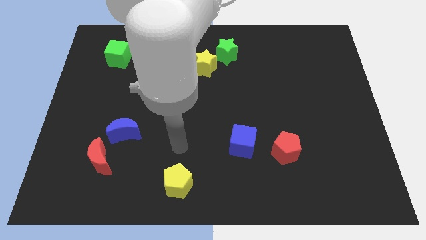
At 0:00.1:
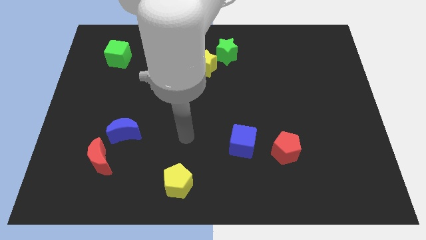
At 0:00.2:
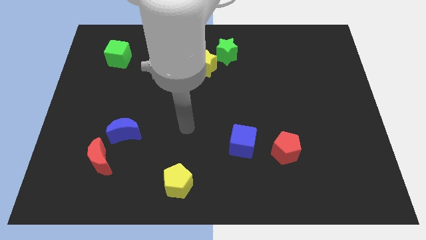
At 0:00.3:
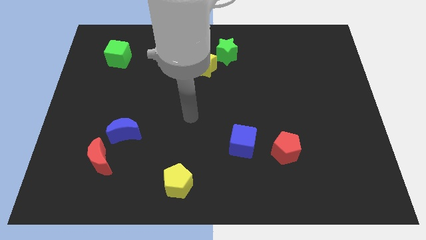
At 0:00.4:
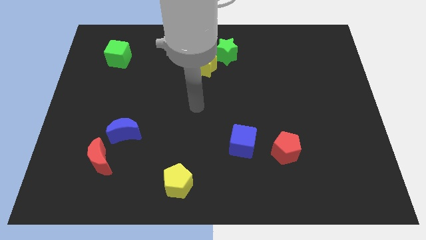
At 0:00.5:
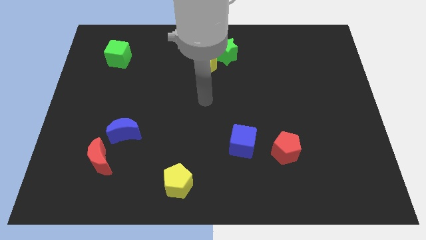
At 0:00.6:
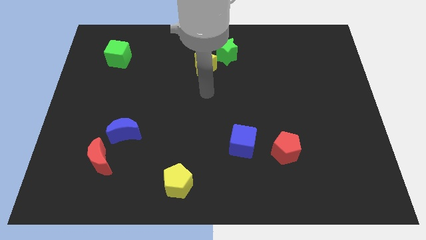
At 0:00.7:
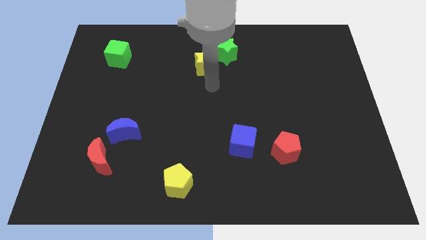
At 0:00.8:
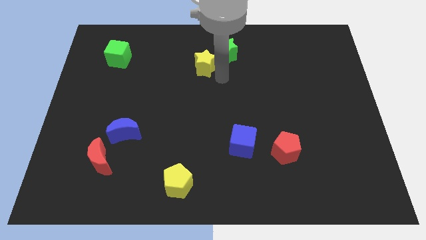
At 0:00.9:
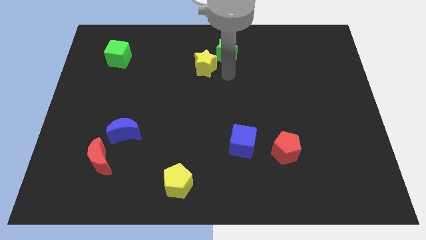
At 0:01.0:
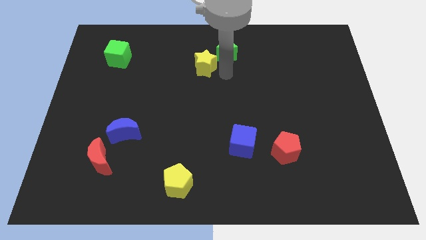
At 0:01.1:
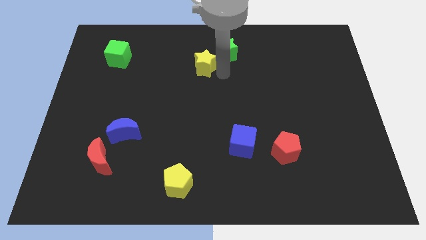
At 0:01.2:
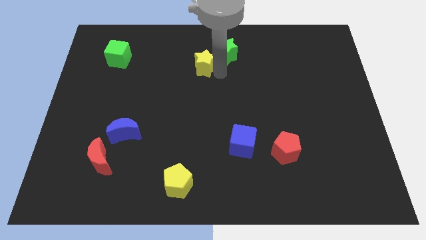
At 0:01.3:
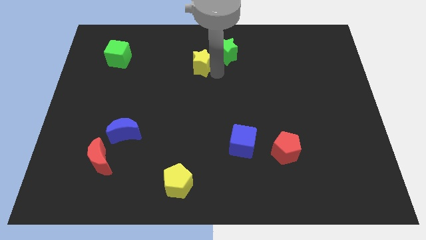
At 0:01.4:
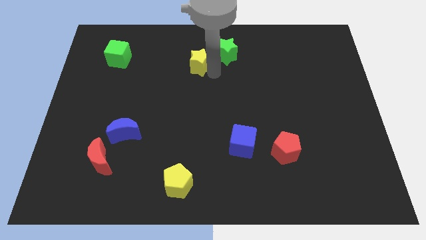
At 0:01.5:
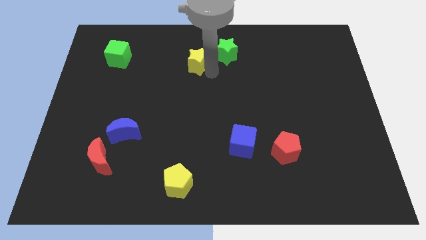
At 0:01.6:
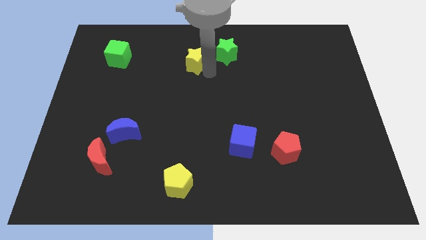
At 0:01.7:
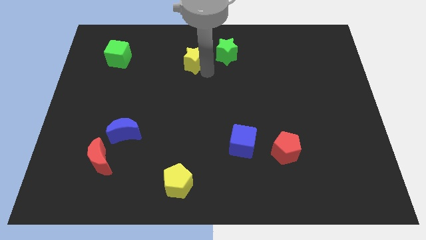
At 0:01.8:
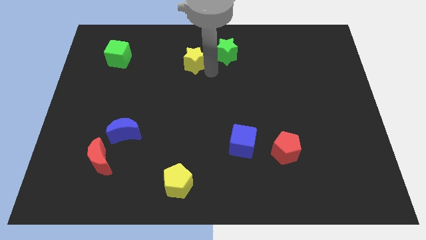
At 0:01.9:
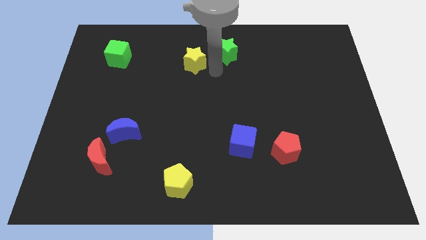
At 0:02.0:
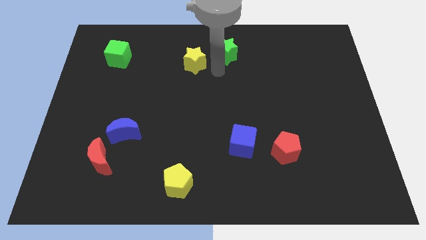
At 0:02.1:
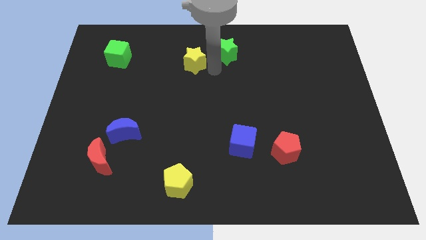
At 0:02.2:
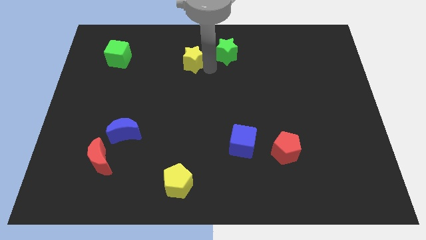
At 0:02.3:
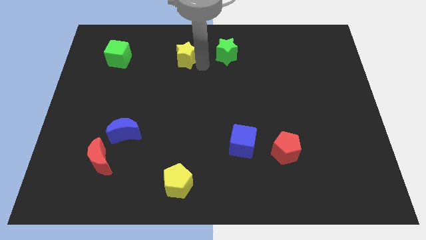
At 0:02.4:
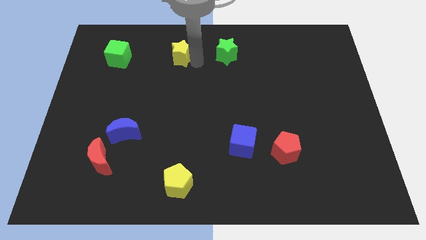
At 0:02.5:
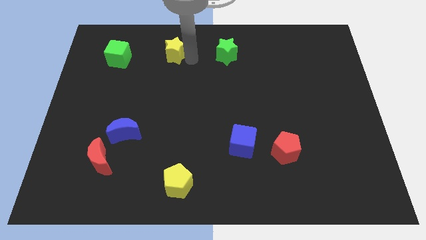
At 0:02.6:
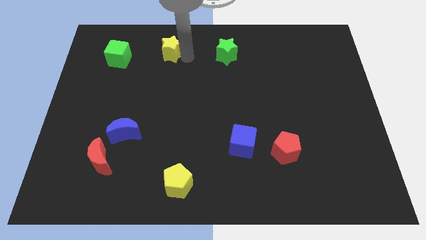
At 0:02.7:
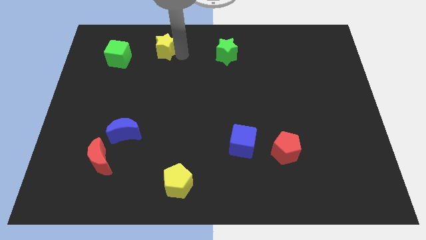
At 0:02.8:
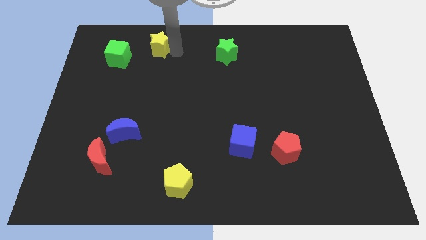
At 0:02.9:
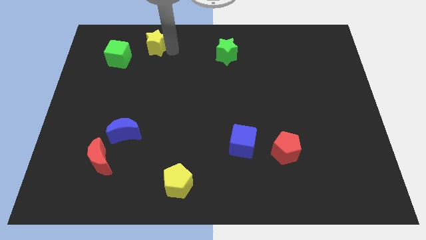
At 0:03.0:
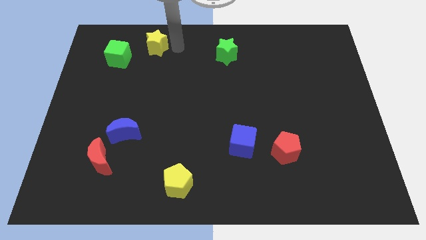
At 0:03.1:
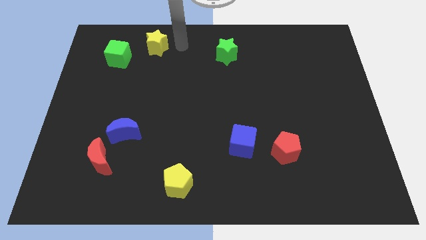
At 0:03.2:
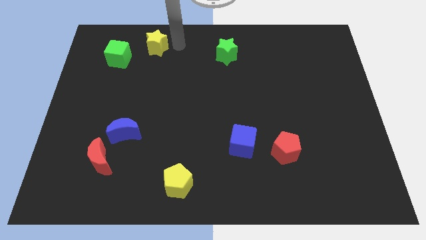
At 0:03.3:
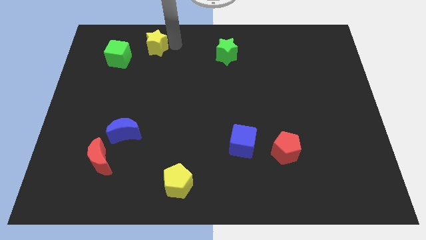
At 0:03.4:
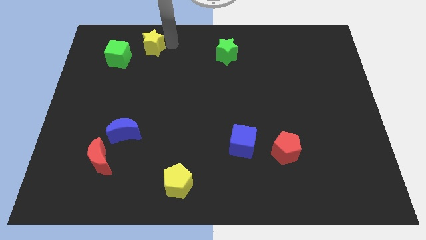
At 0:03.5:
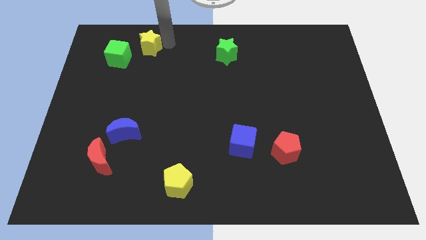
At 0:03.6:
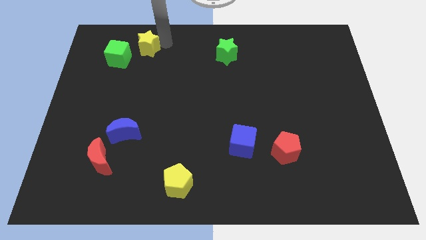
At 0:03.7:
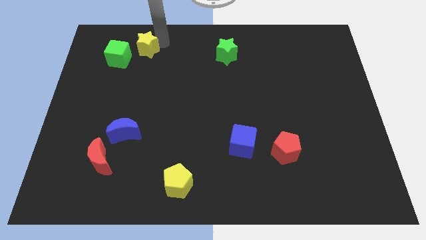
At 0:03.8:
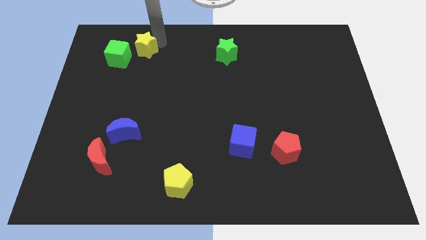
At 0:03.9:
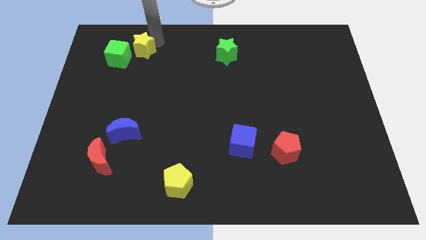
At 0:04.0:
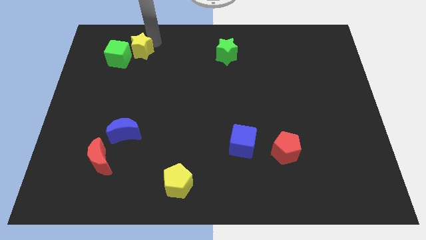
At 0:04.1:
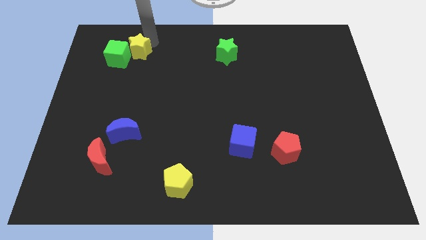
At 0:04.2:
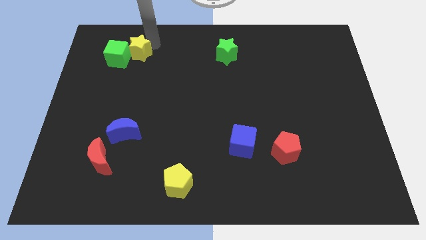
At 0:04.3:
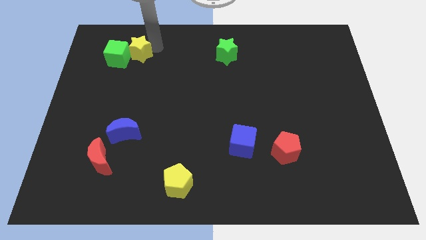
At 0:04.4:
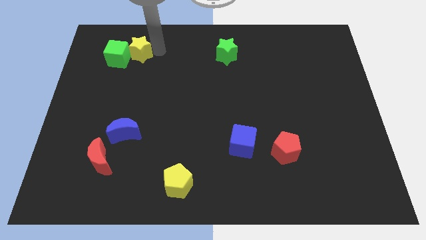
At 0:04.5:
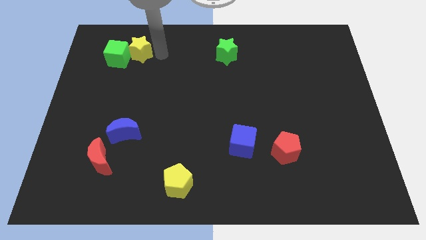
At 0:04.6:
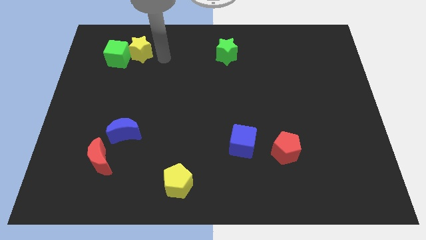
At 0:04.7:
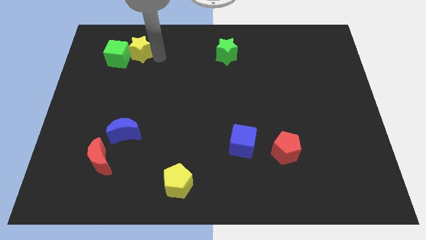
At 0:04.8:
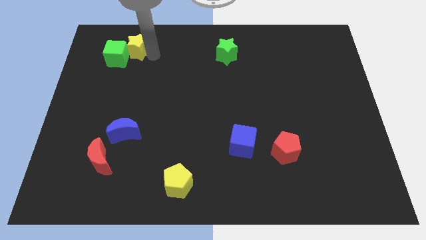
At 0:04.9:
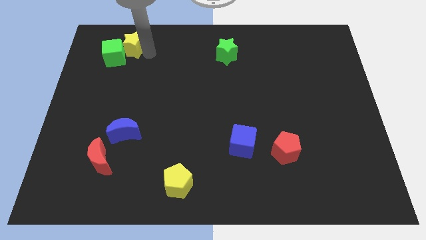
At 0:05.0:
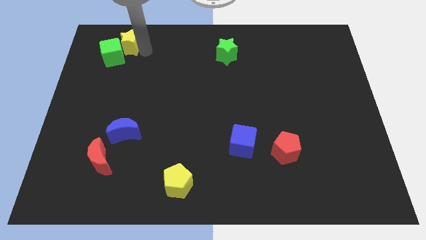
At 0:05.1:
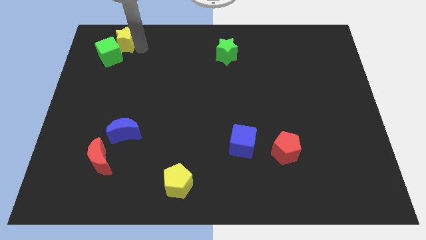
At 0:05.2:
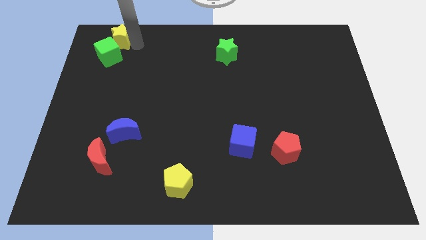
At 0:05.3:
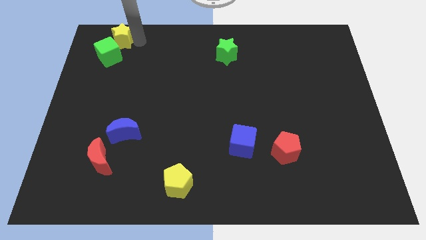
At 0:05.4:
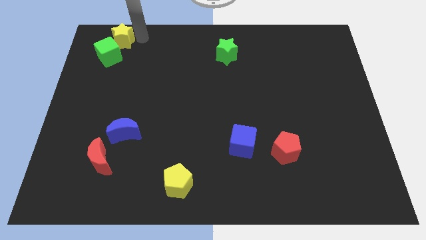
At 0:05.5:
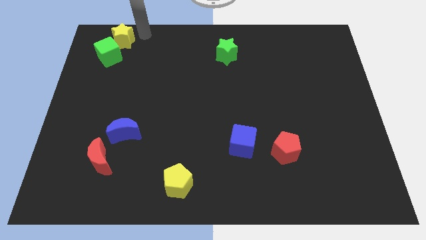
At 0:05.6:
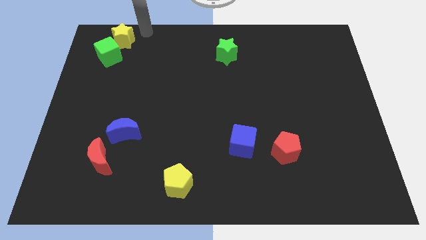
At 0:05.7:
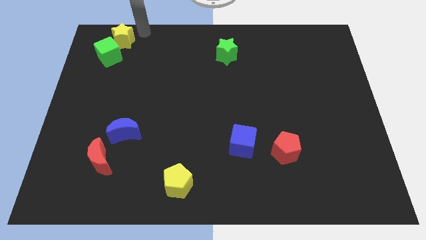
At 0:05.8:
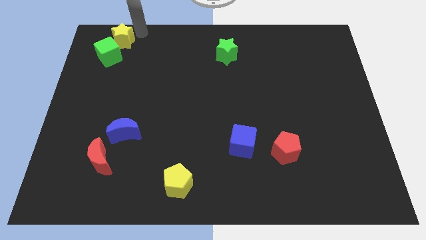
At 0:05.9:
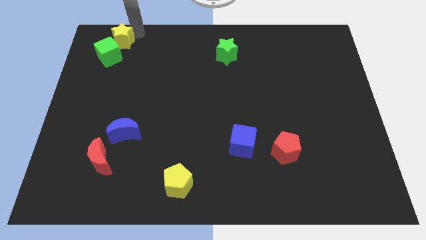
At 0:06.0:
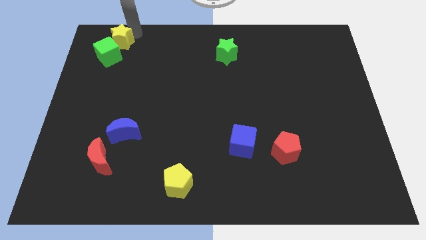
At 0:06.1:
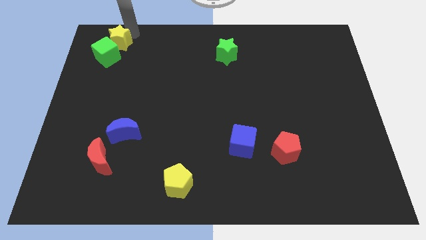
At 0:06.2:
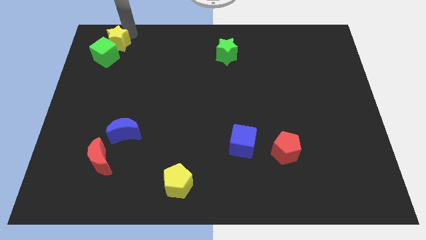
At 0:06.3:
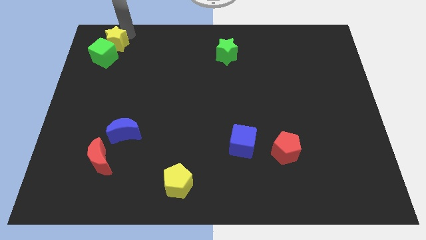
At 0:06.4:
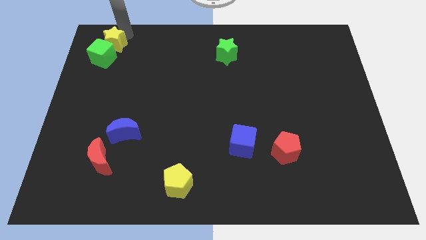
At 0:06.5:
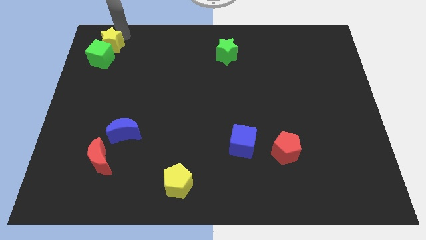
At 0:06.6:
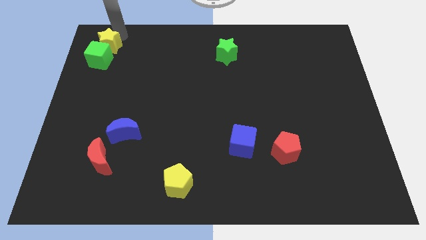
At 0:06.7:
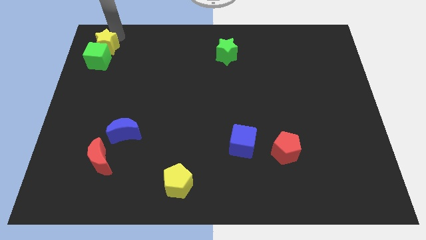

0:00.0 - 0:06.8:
slide the yellow star to the top left corner
